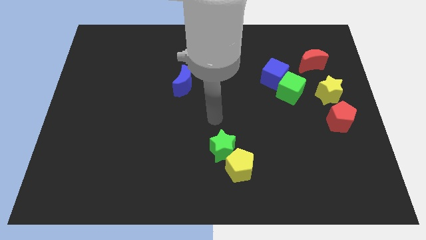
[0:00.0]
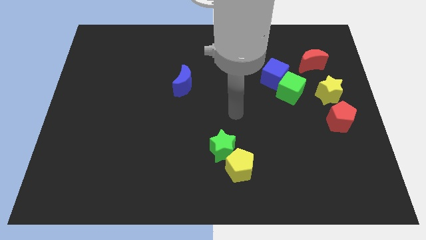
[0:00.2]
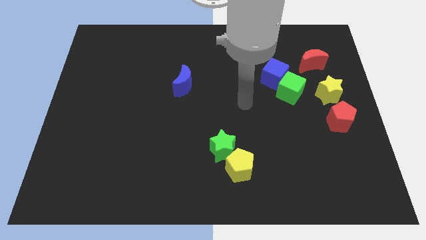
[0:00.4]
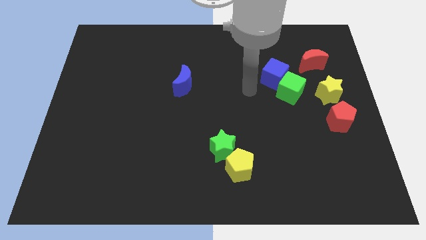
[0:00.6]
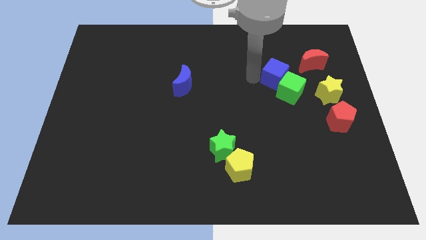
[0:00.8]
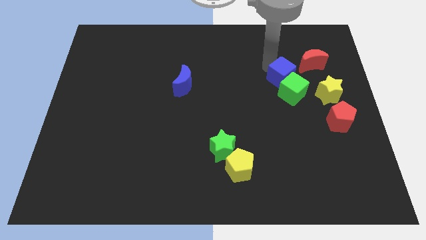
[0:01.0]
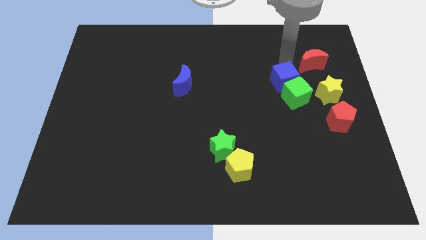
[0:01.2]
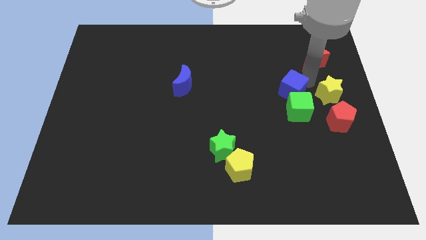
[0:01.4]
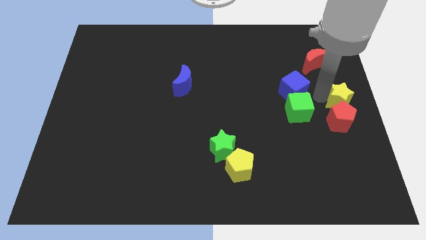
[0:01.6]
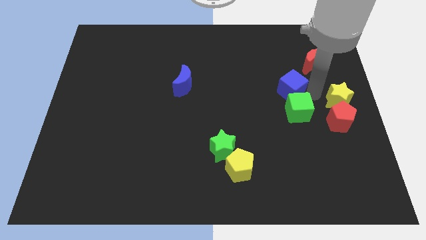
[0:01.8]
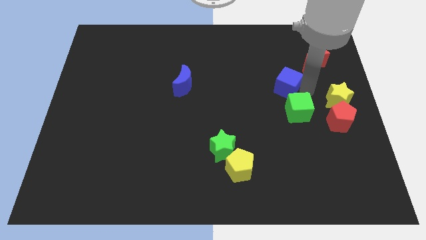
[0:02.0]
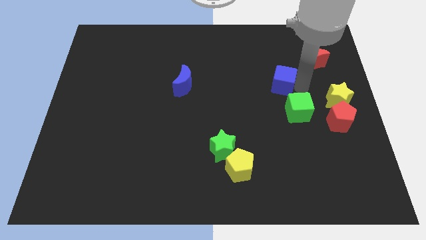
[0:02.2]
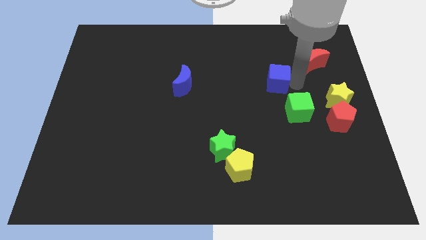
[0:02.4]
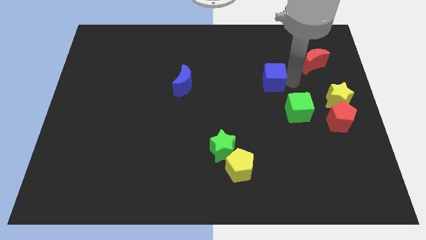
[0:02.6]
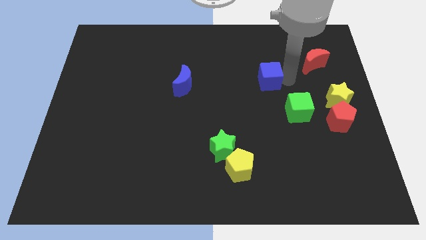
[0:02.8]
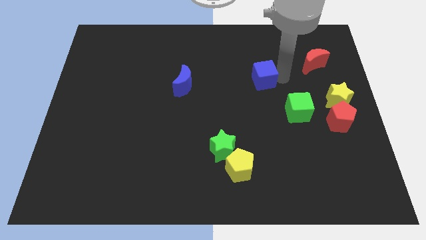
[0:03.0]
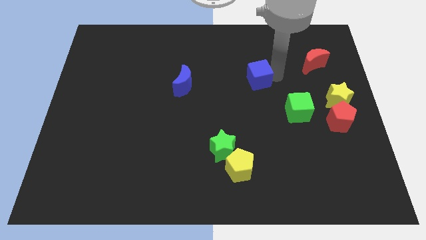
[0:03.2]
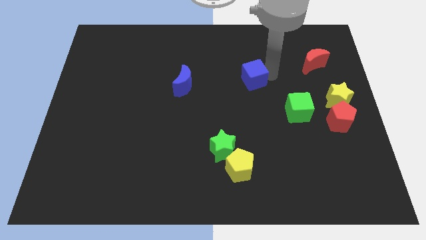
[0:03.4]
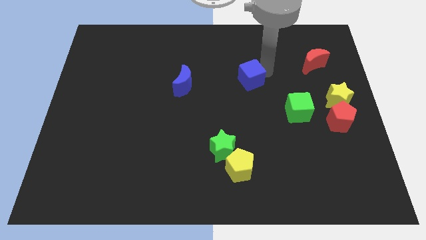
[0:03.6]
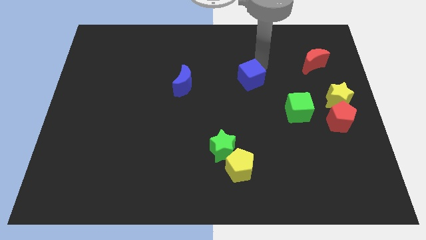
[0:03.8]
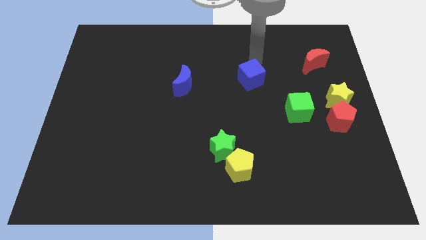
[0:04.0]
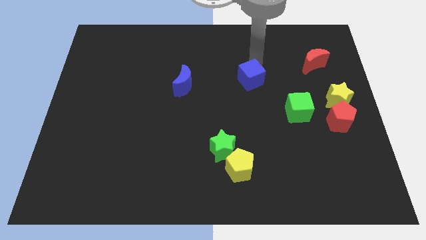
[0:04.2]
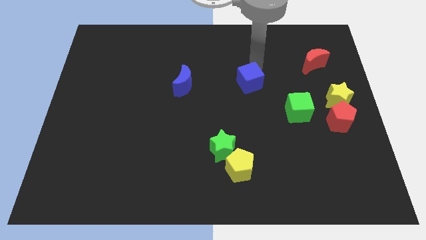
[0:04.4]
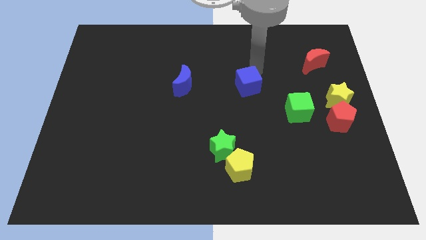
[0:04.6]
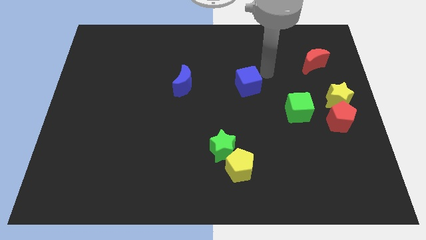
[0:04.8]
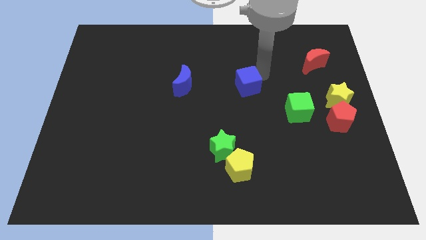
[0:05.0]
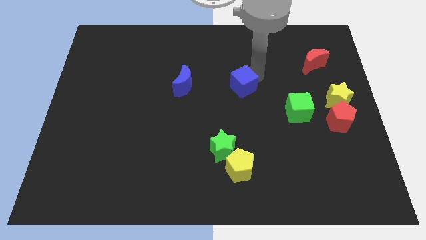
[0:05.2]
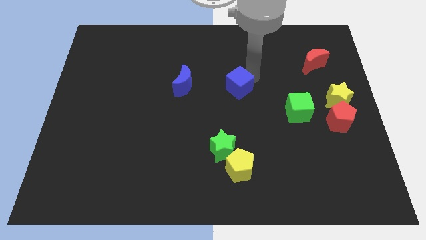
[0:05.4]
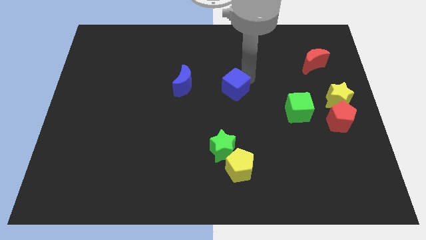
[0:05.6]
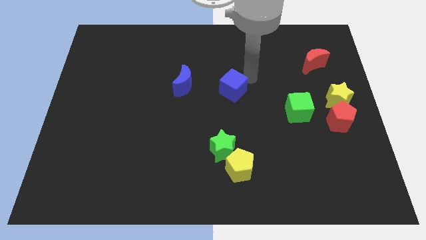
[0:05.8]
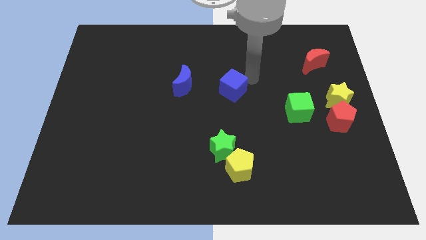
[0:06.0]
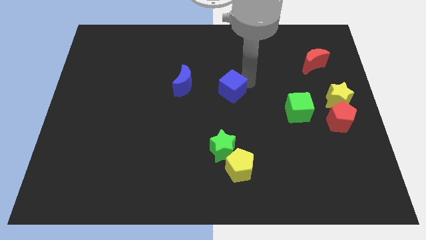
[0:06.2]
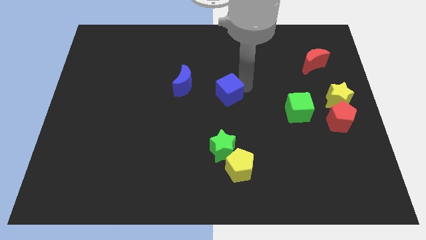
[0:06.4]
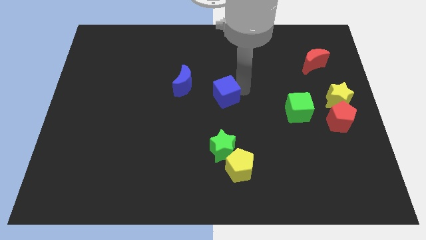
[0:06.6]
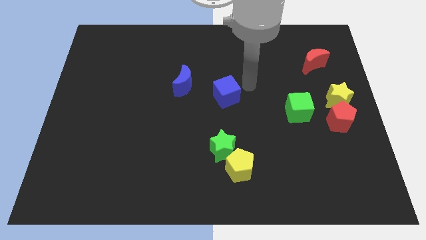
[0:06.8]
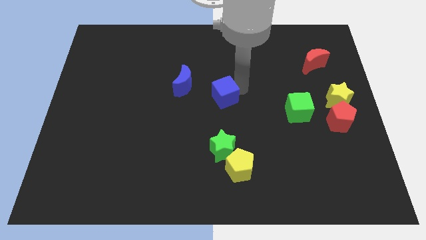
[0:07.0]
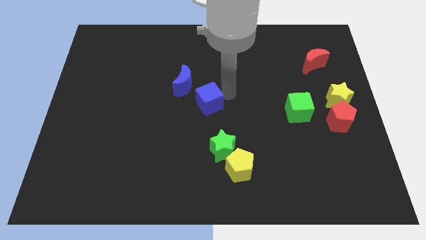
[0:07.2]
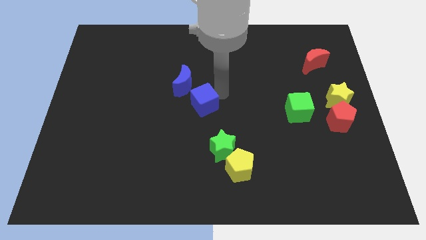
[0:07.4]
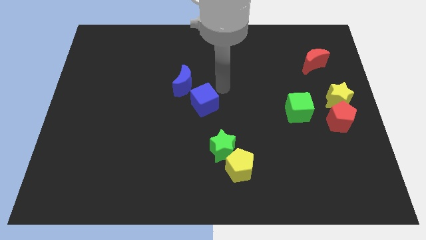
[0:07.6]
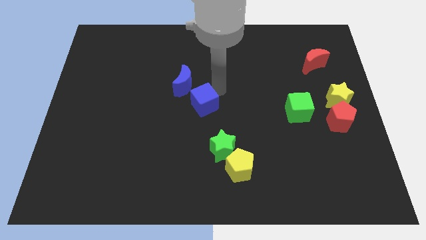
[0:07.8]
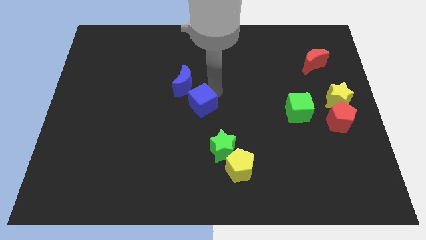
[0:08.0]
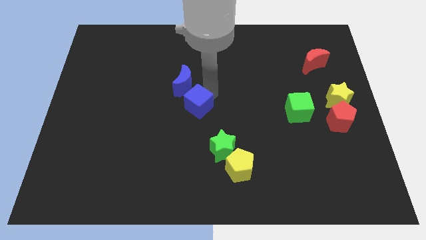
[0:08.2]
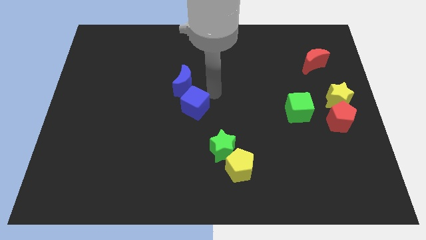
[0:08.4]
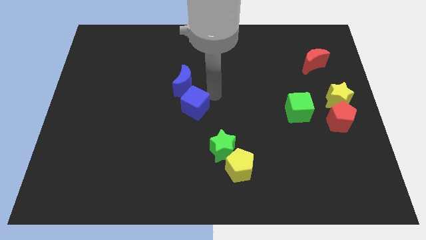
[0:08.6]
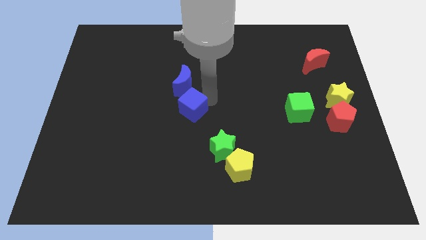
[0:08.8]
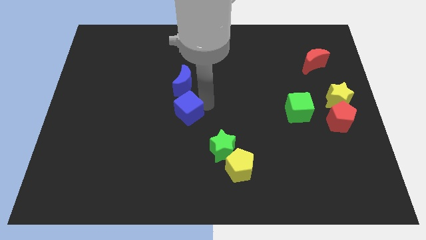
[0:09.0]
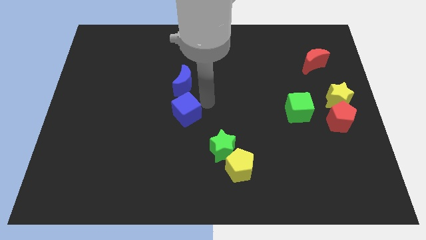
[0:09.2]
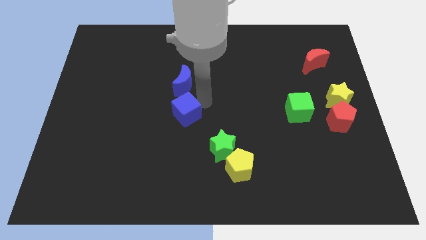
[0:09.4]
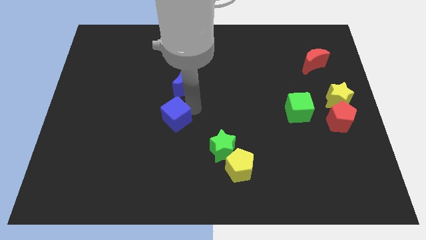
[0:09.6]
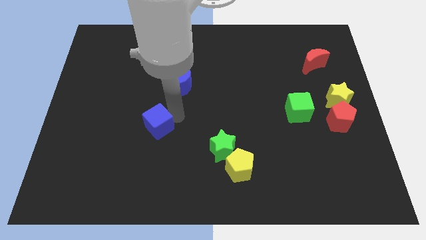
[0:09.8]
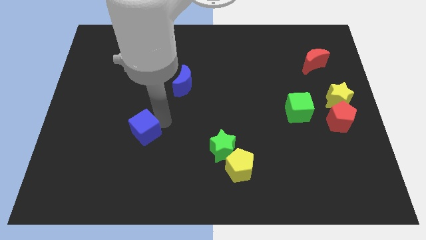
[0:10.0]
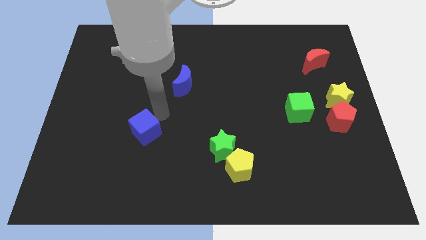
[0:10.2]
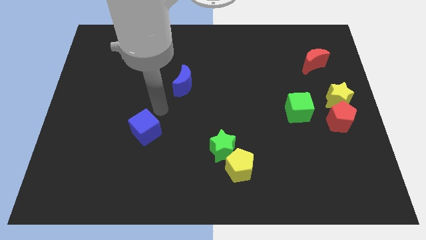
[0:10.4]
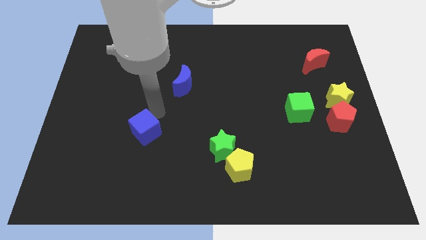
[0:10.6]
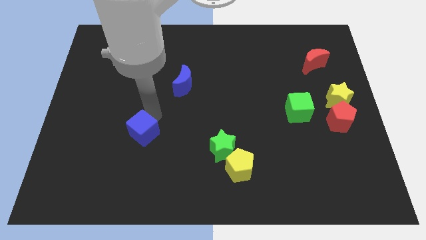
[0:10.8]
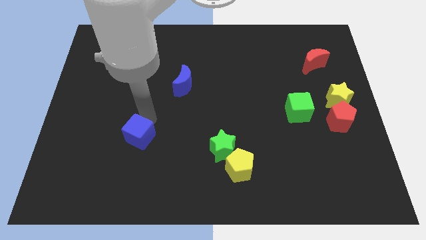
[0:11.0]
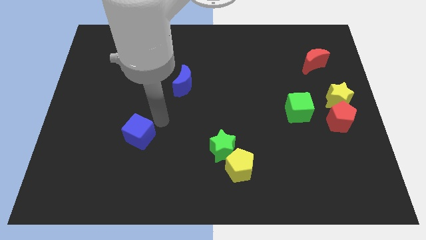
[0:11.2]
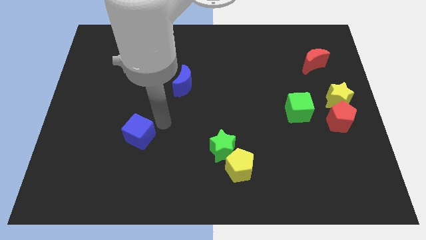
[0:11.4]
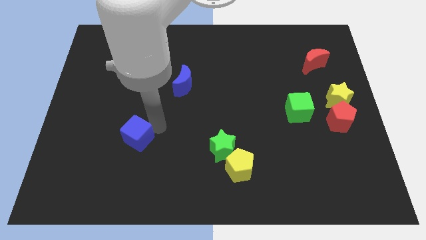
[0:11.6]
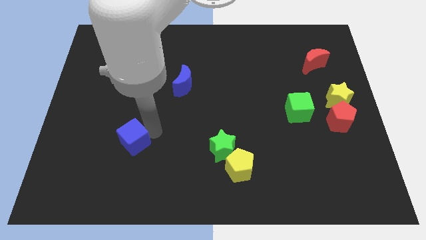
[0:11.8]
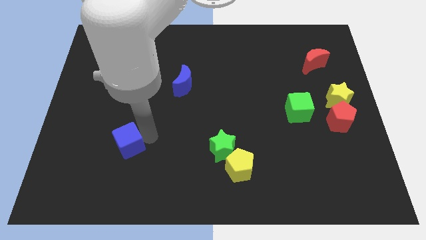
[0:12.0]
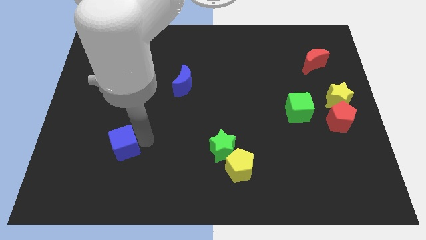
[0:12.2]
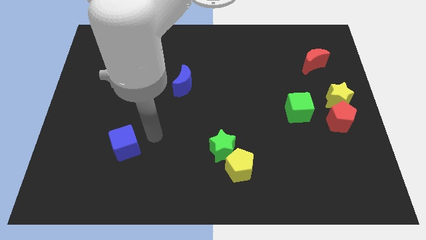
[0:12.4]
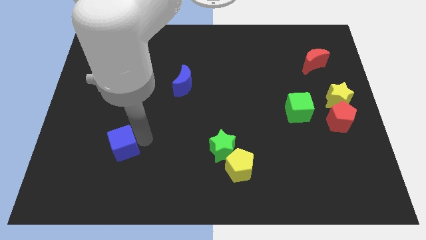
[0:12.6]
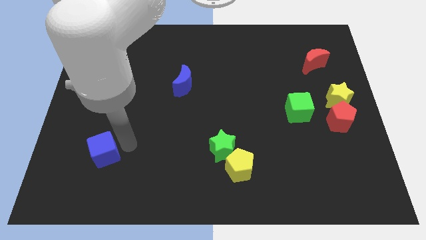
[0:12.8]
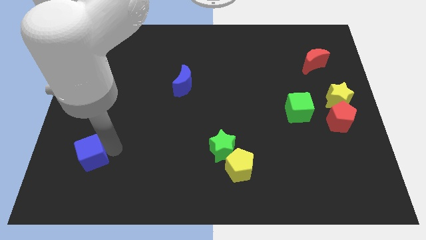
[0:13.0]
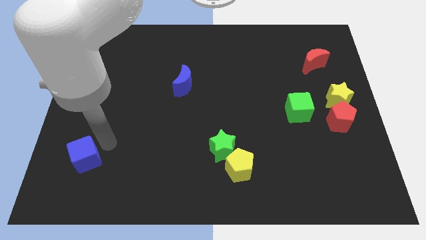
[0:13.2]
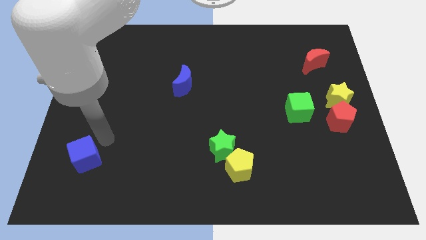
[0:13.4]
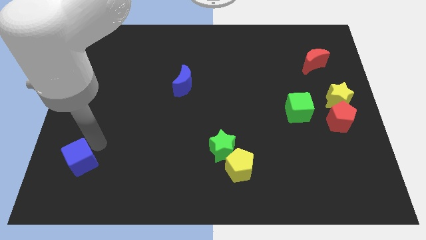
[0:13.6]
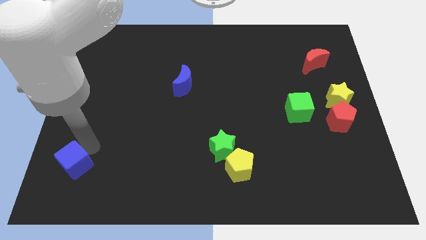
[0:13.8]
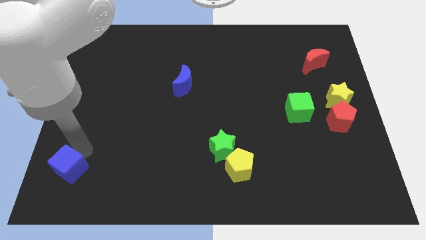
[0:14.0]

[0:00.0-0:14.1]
move the blue cube to the lower left corner
